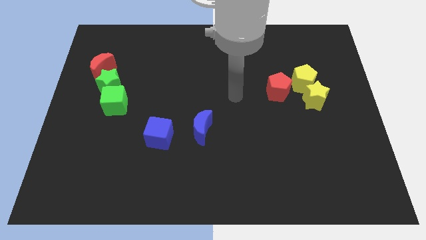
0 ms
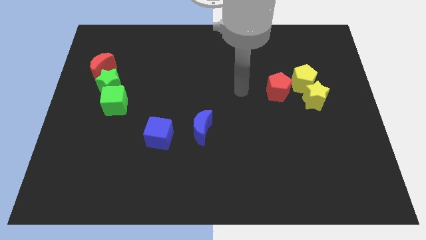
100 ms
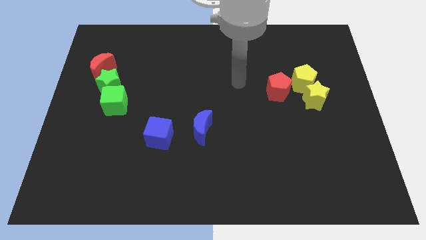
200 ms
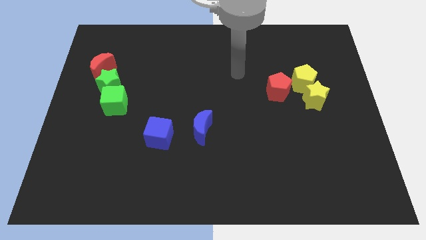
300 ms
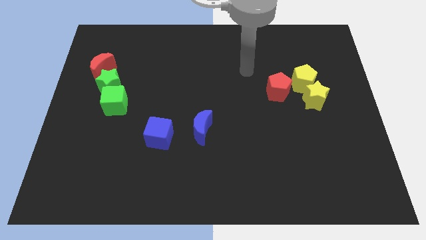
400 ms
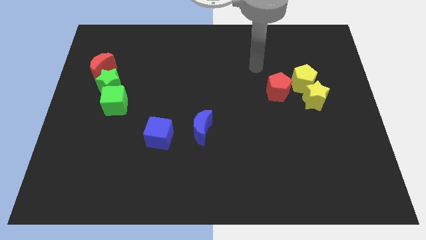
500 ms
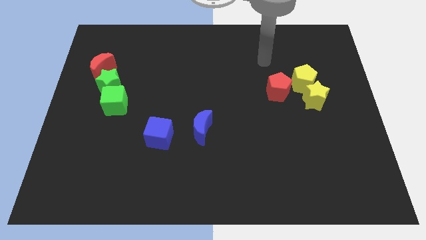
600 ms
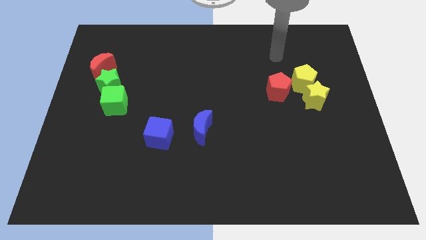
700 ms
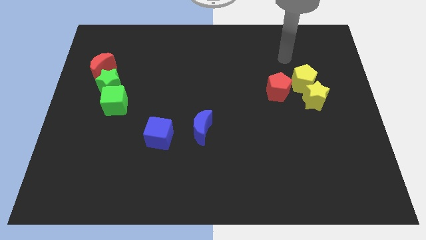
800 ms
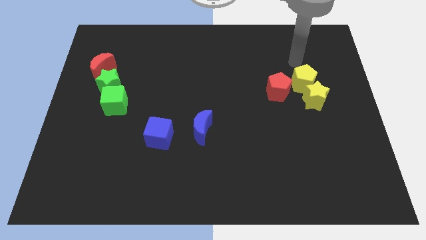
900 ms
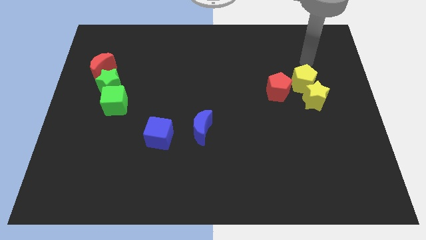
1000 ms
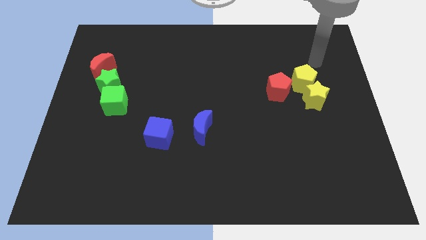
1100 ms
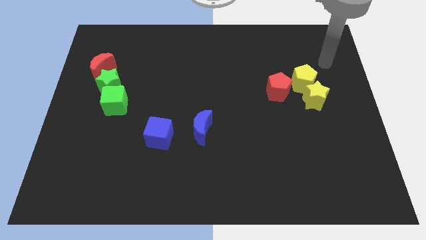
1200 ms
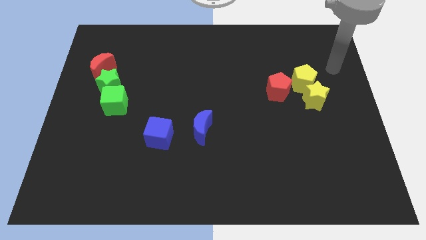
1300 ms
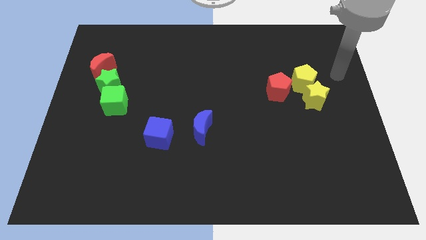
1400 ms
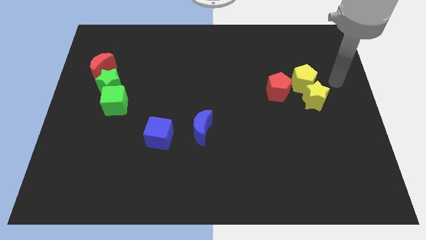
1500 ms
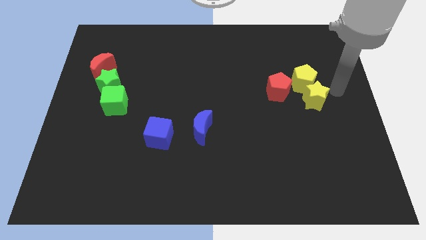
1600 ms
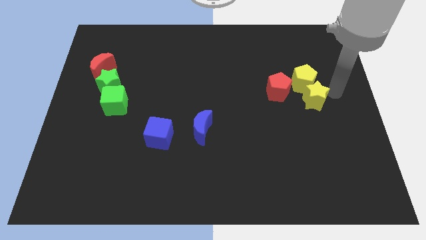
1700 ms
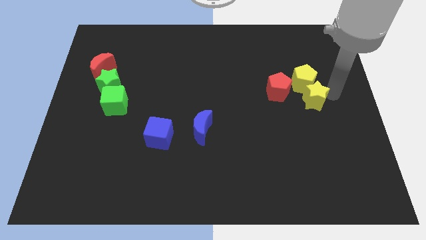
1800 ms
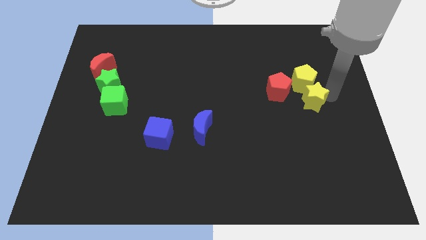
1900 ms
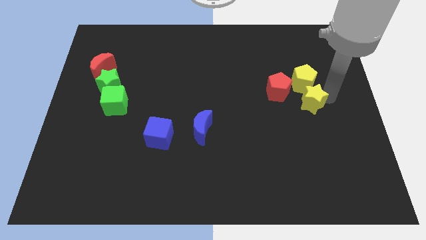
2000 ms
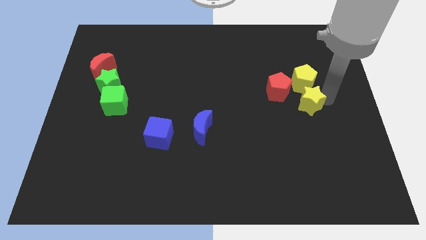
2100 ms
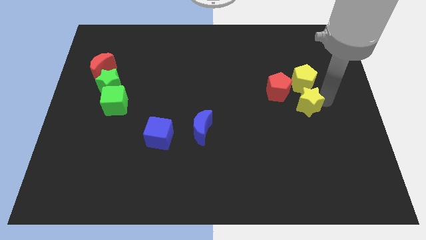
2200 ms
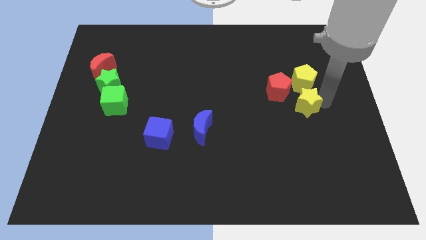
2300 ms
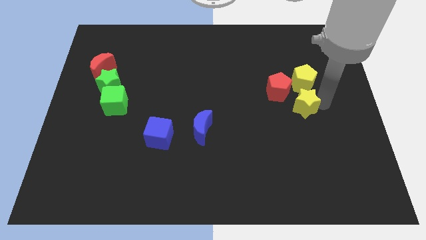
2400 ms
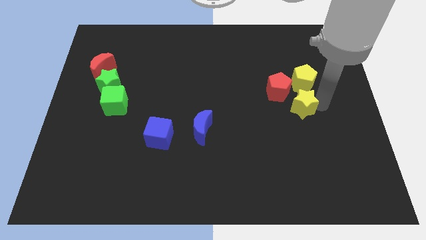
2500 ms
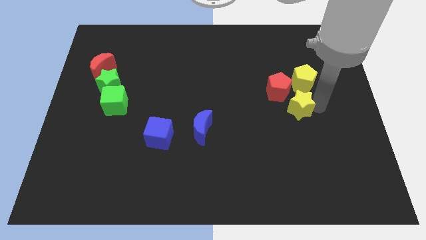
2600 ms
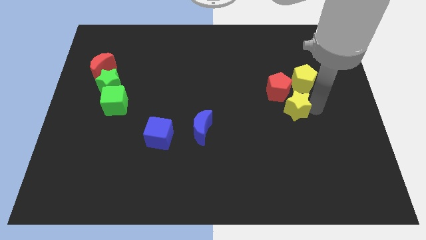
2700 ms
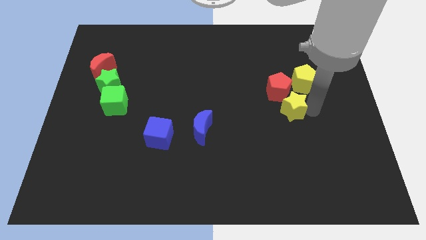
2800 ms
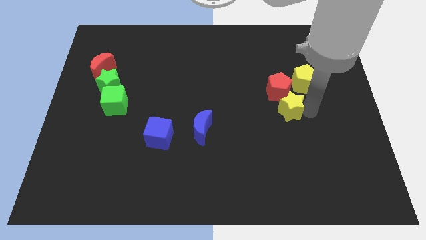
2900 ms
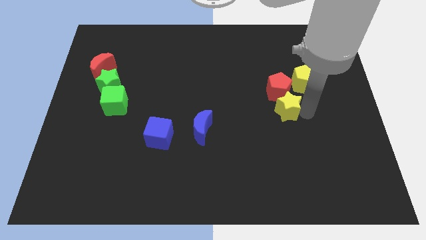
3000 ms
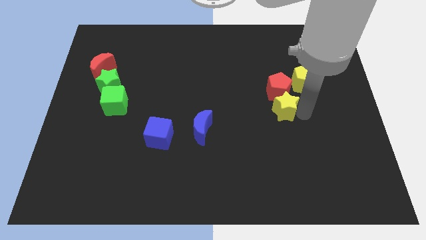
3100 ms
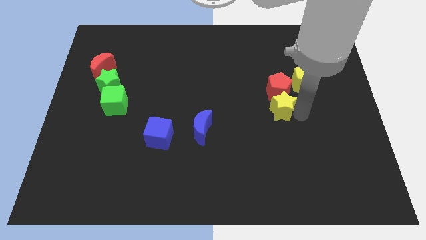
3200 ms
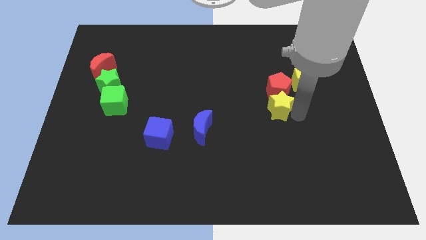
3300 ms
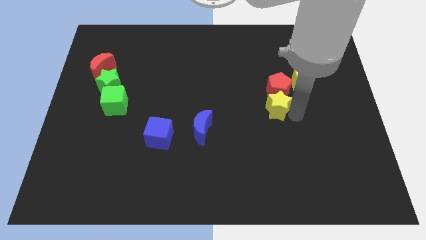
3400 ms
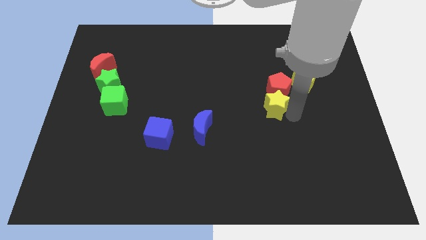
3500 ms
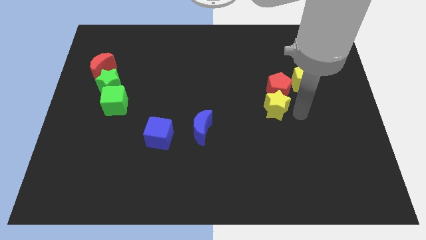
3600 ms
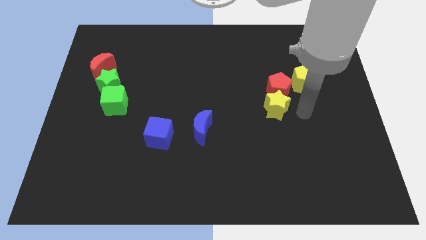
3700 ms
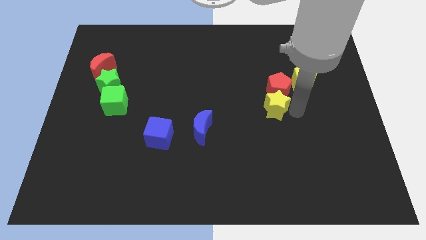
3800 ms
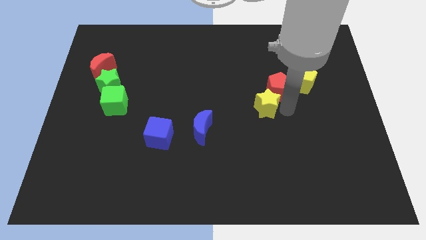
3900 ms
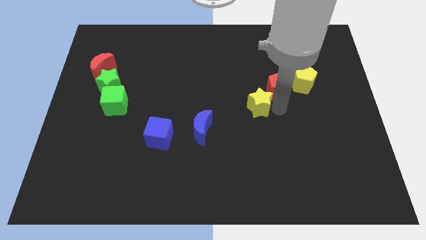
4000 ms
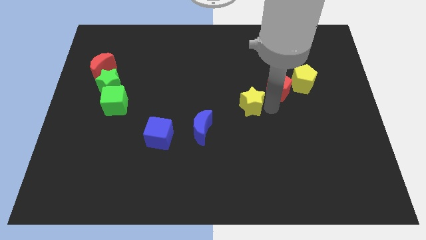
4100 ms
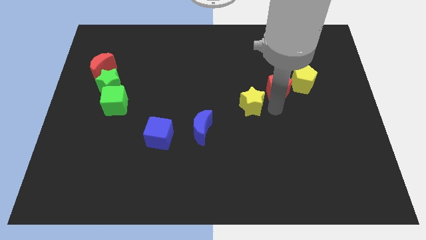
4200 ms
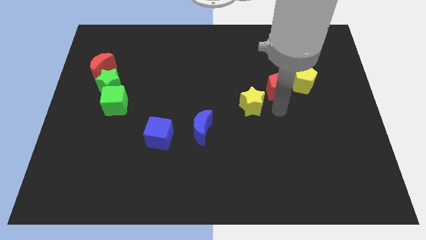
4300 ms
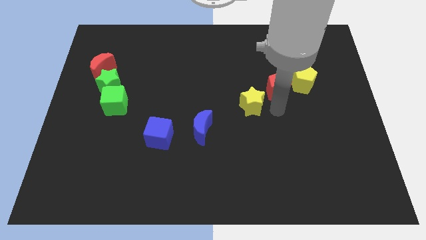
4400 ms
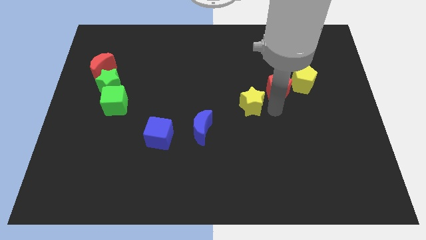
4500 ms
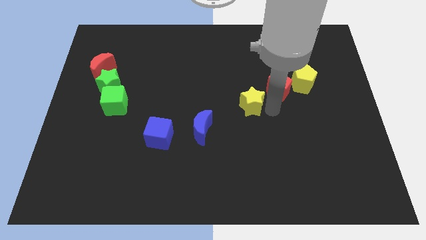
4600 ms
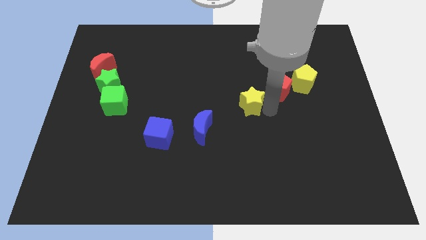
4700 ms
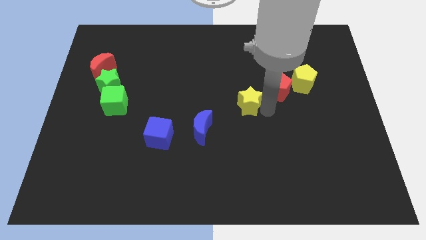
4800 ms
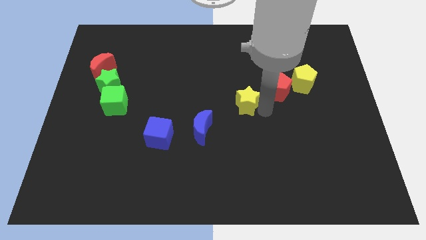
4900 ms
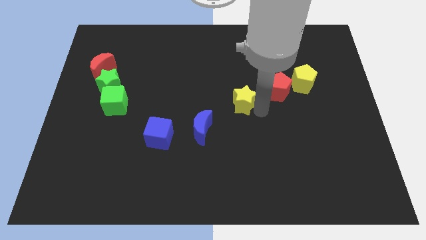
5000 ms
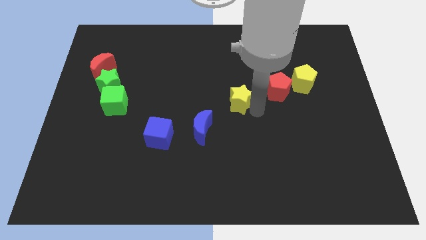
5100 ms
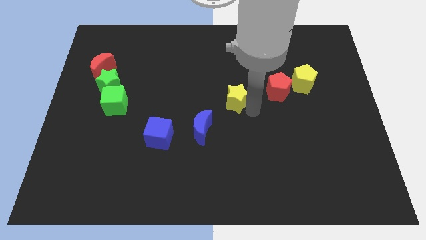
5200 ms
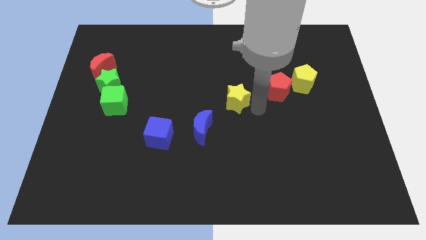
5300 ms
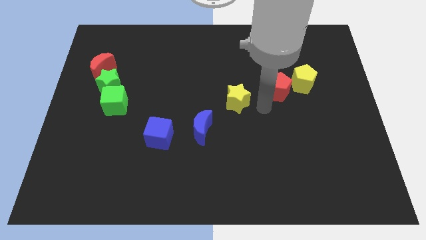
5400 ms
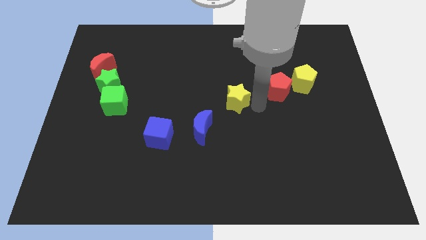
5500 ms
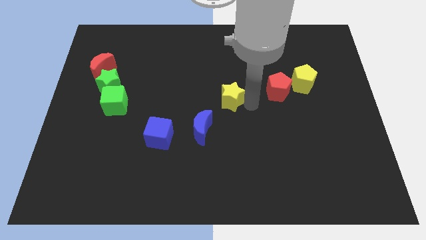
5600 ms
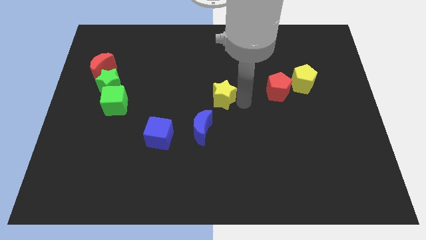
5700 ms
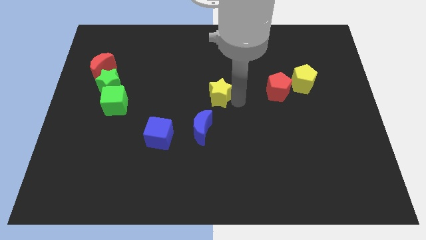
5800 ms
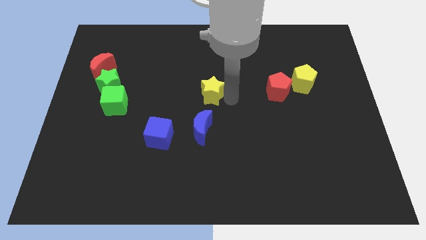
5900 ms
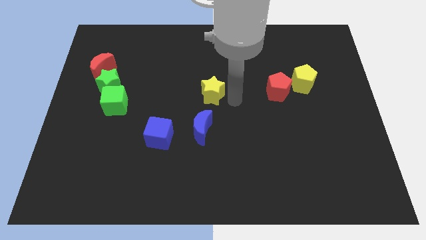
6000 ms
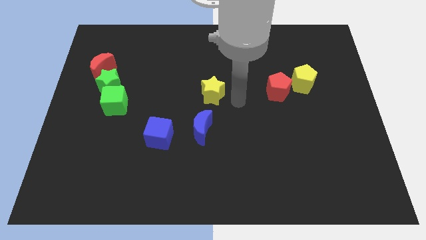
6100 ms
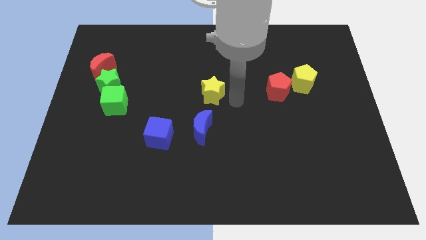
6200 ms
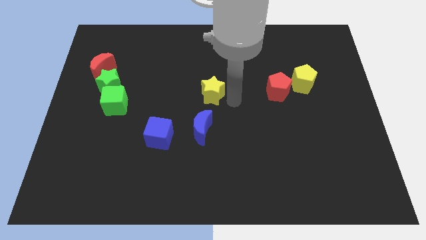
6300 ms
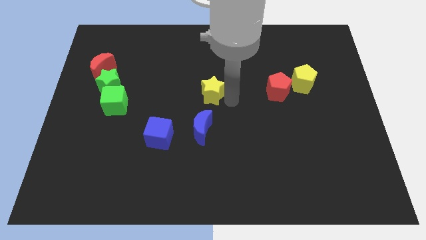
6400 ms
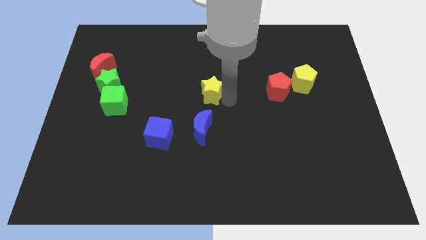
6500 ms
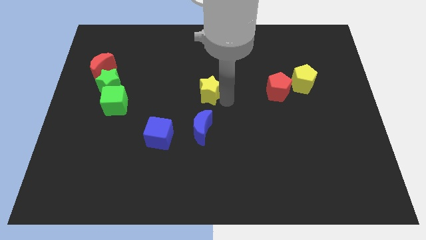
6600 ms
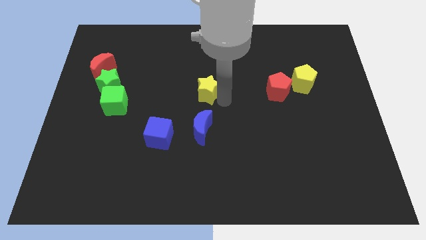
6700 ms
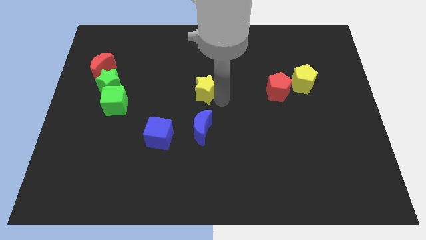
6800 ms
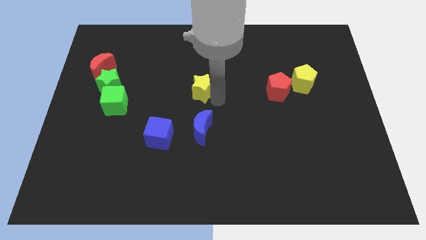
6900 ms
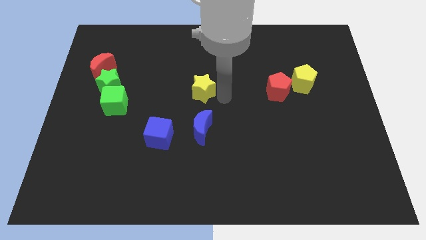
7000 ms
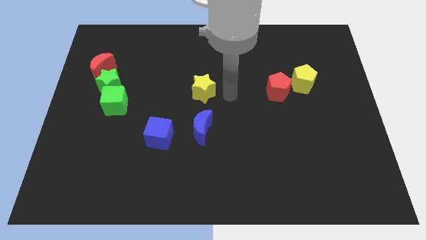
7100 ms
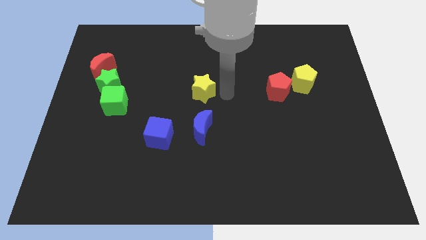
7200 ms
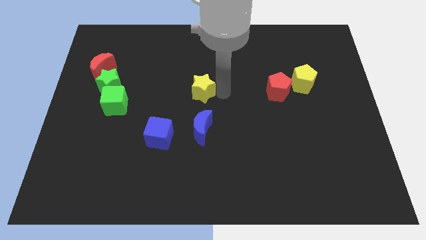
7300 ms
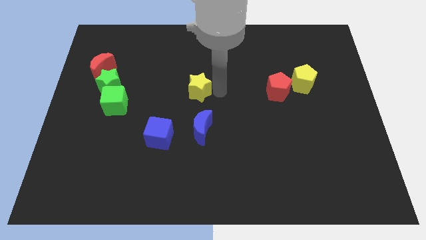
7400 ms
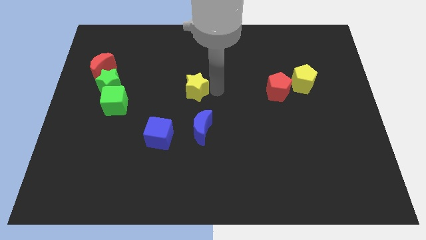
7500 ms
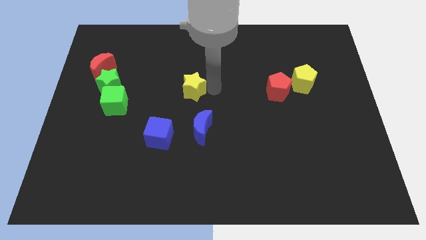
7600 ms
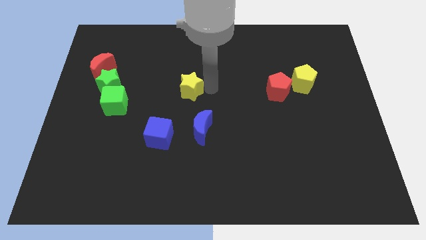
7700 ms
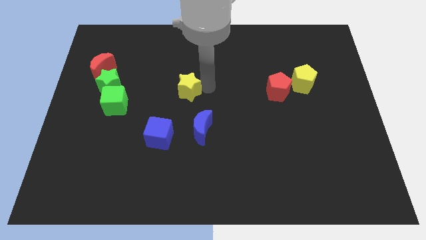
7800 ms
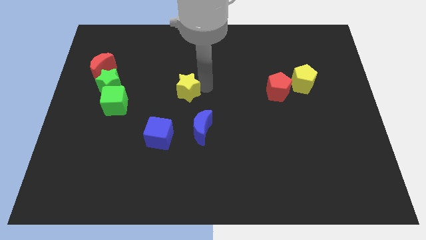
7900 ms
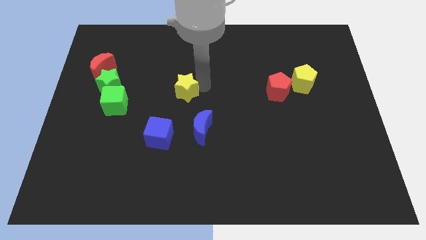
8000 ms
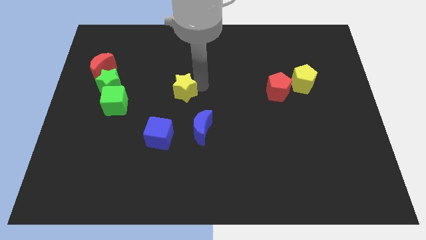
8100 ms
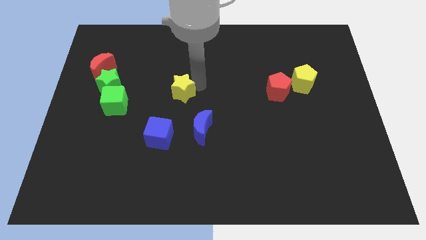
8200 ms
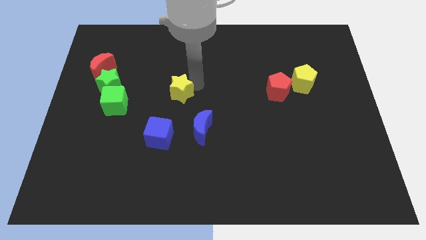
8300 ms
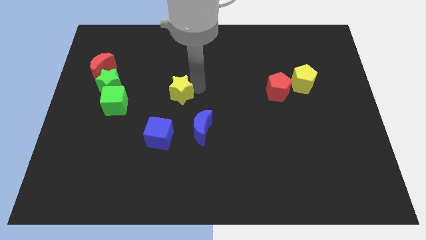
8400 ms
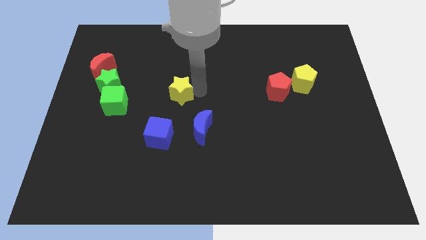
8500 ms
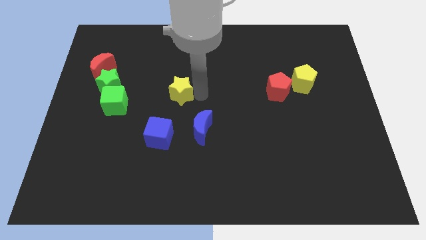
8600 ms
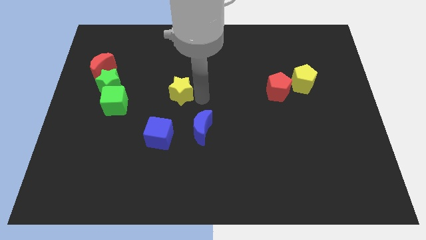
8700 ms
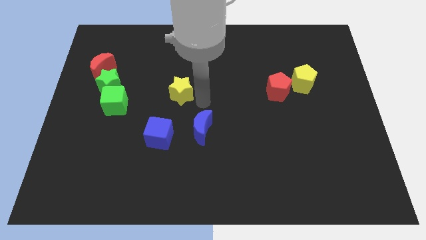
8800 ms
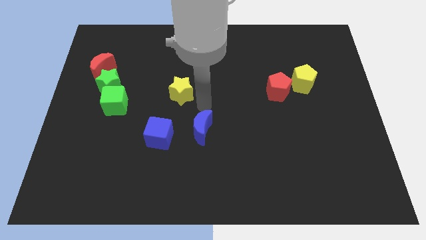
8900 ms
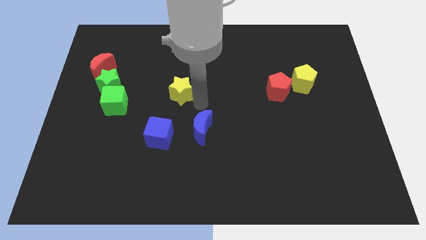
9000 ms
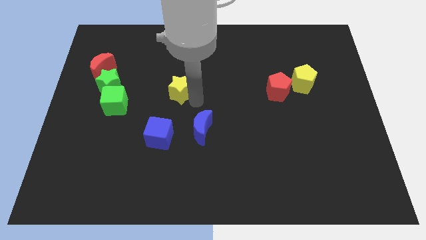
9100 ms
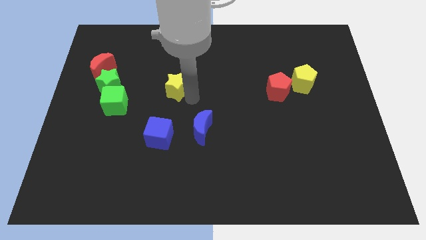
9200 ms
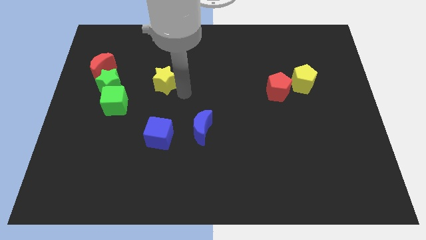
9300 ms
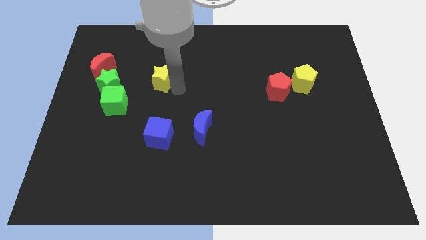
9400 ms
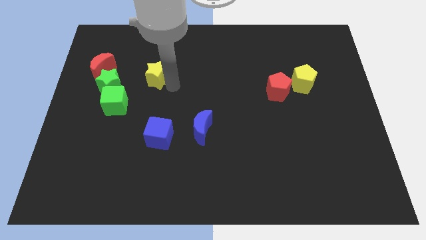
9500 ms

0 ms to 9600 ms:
put the yellow star to the right side of the red moon
